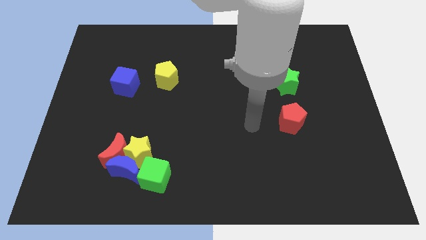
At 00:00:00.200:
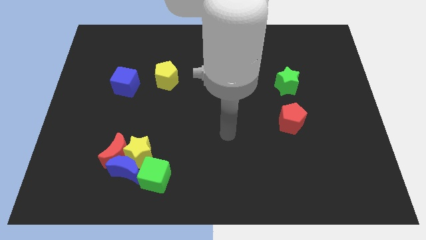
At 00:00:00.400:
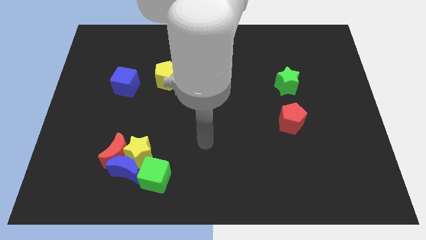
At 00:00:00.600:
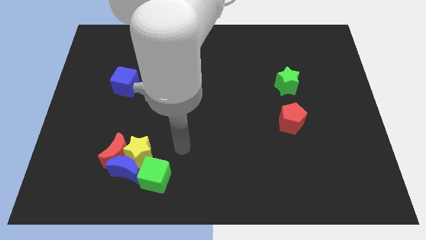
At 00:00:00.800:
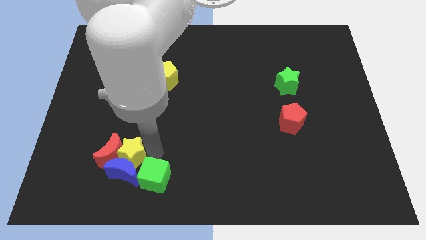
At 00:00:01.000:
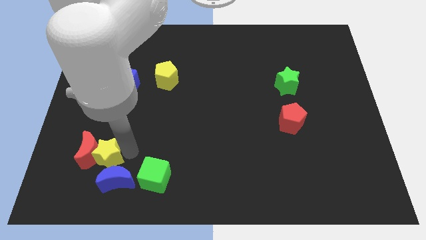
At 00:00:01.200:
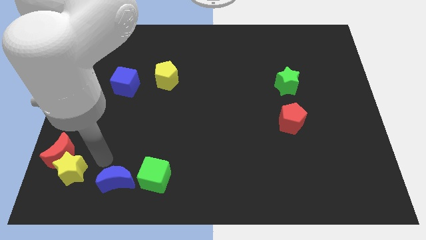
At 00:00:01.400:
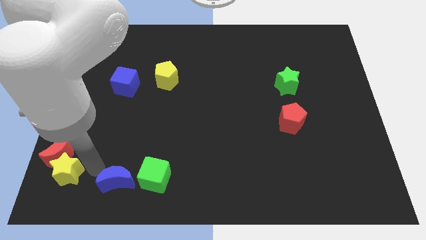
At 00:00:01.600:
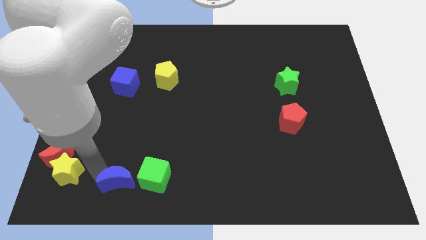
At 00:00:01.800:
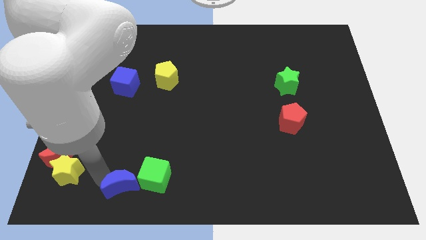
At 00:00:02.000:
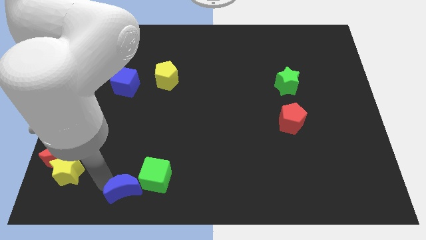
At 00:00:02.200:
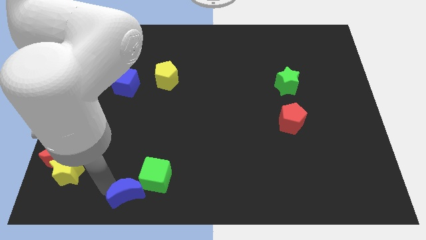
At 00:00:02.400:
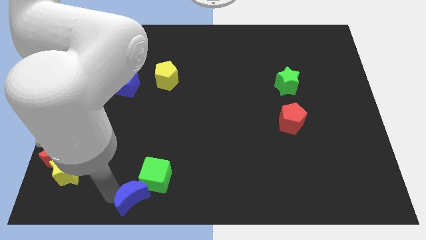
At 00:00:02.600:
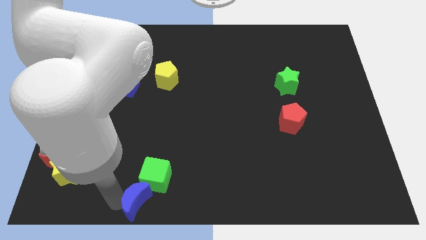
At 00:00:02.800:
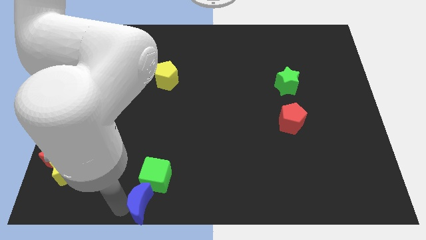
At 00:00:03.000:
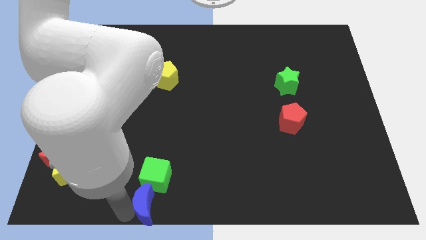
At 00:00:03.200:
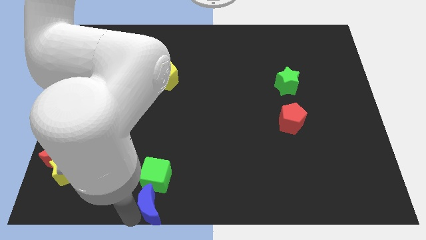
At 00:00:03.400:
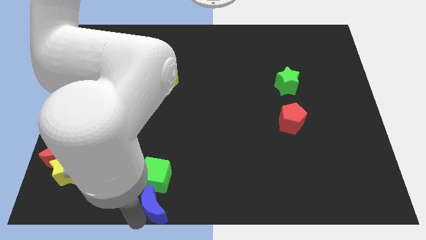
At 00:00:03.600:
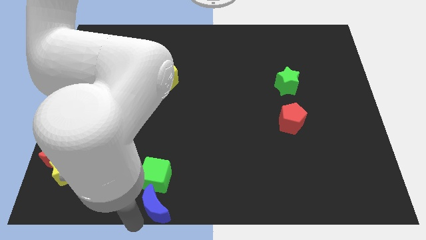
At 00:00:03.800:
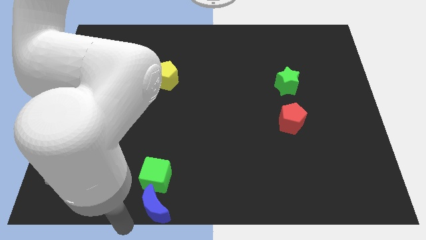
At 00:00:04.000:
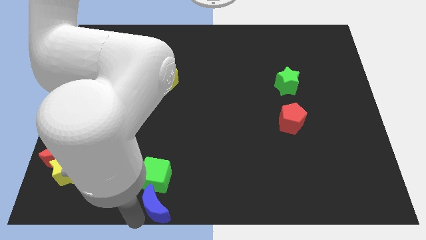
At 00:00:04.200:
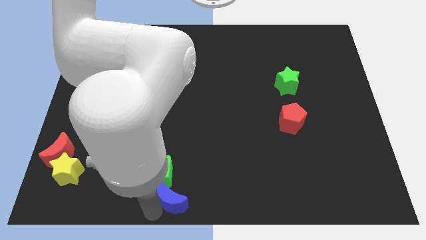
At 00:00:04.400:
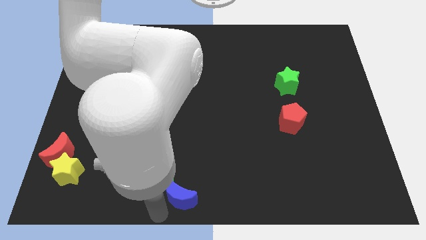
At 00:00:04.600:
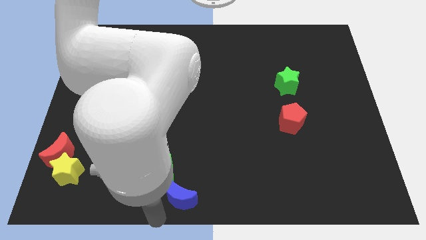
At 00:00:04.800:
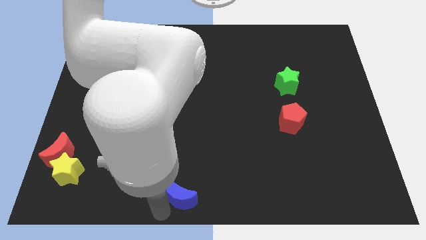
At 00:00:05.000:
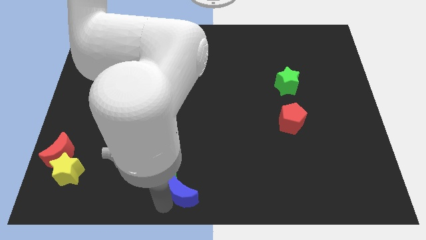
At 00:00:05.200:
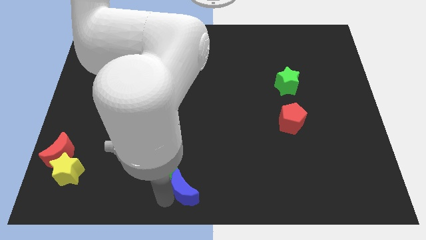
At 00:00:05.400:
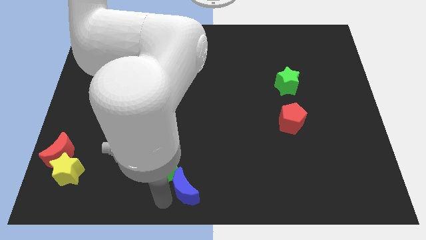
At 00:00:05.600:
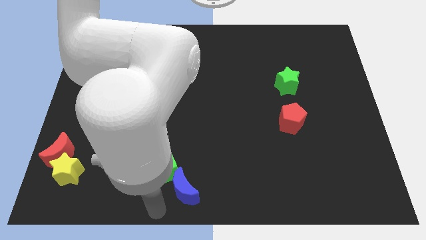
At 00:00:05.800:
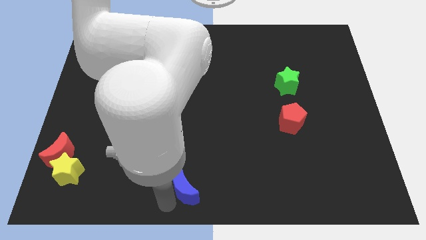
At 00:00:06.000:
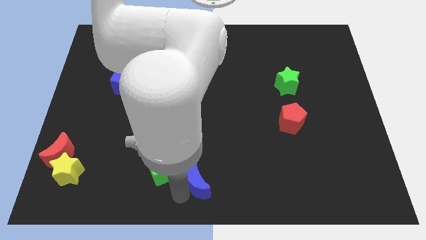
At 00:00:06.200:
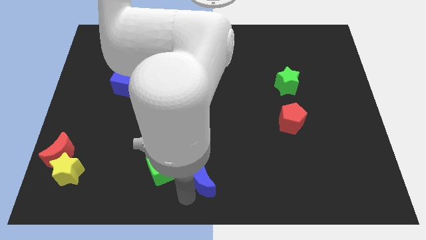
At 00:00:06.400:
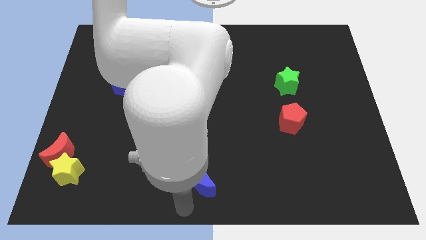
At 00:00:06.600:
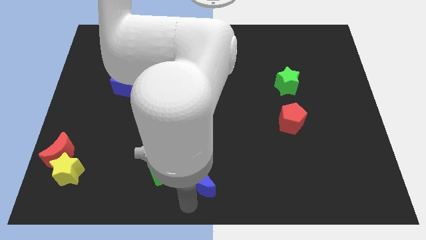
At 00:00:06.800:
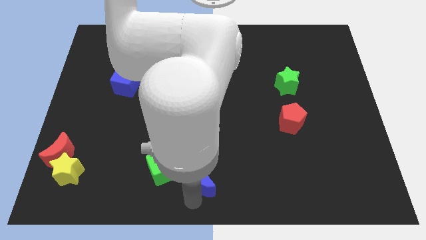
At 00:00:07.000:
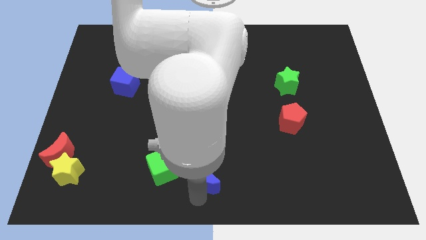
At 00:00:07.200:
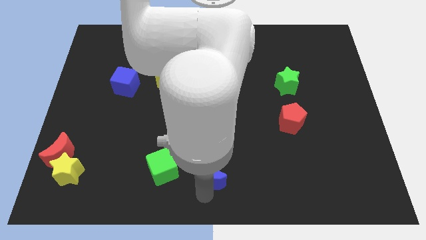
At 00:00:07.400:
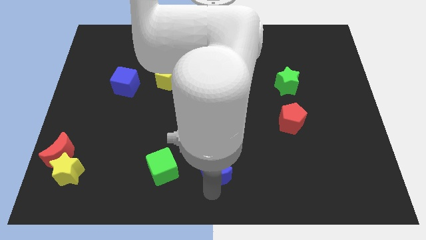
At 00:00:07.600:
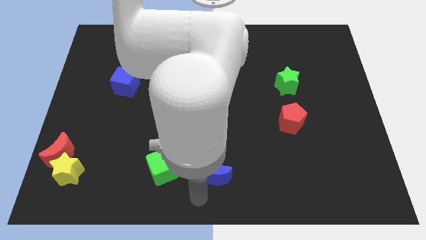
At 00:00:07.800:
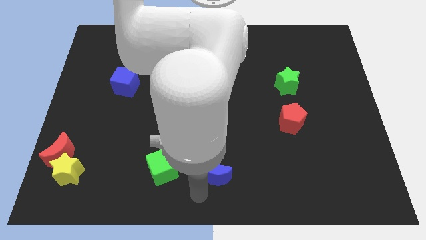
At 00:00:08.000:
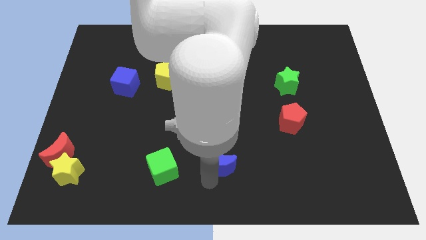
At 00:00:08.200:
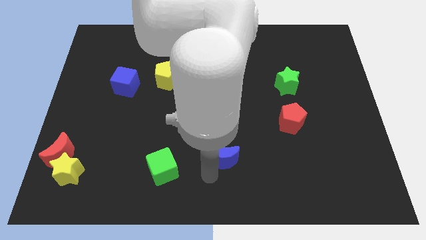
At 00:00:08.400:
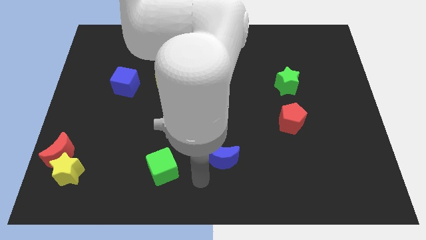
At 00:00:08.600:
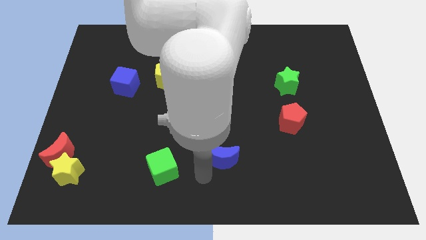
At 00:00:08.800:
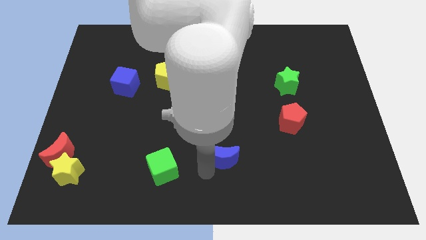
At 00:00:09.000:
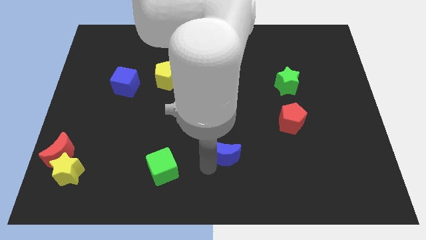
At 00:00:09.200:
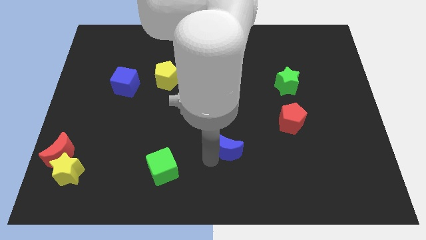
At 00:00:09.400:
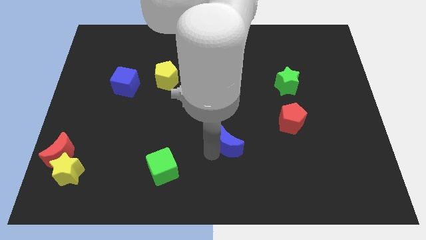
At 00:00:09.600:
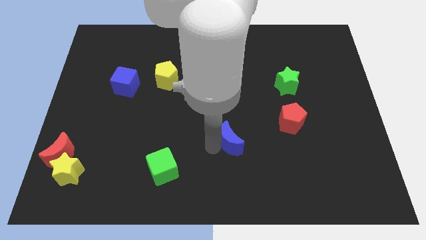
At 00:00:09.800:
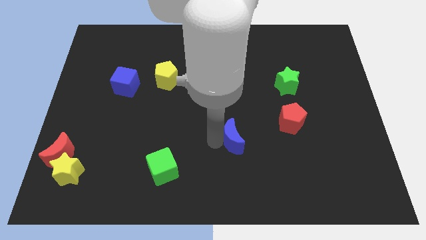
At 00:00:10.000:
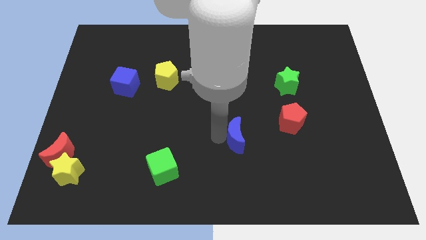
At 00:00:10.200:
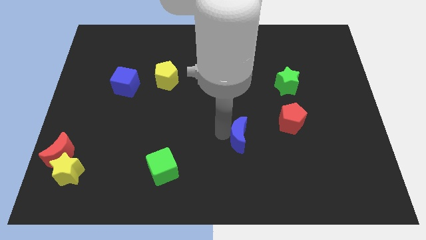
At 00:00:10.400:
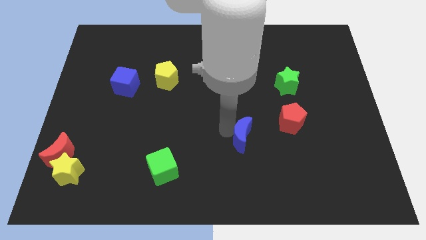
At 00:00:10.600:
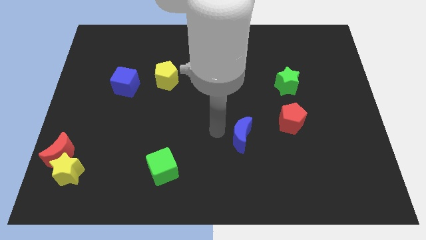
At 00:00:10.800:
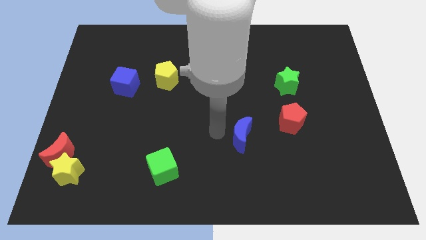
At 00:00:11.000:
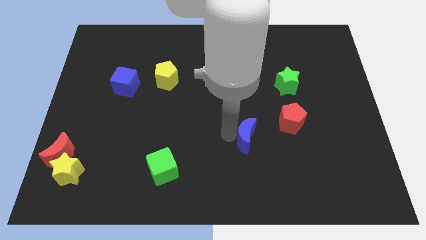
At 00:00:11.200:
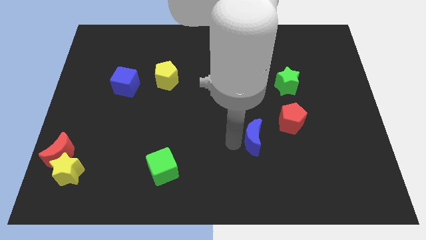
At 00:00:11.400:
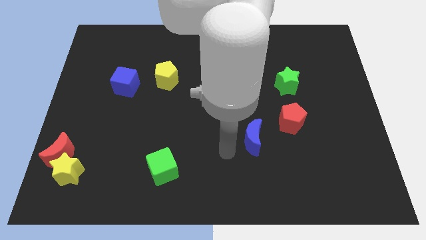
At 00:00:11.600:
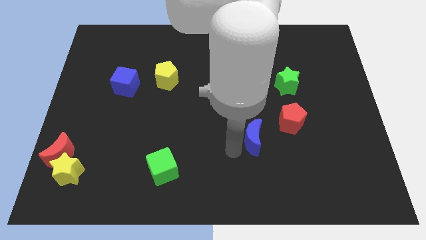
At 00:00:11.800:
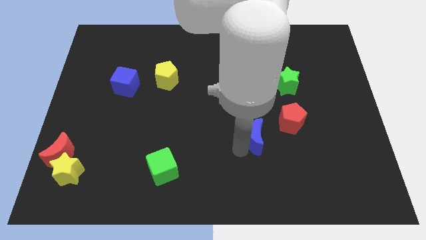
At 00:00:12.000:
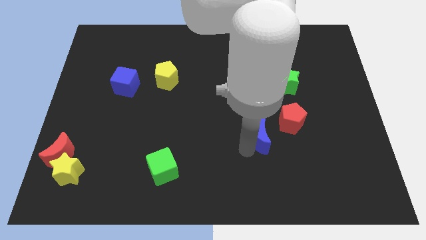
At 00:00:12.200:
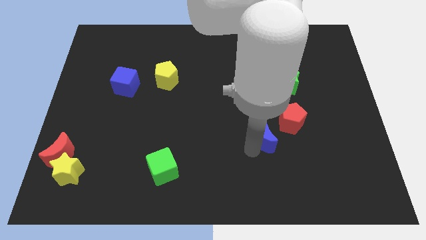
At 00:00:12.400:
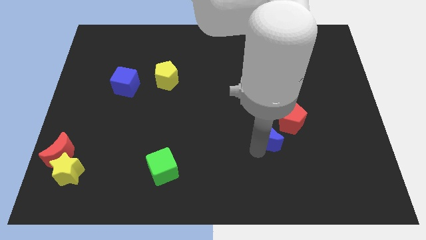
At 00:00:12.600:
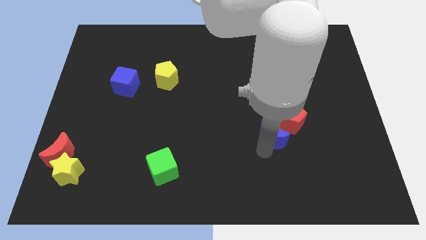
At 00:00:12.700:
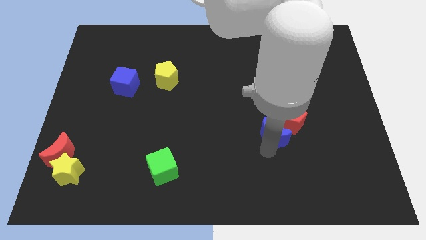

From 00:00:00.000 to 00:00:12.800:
slide the blue moon close to the red pentagon

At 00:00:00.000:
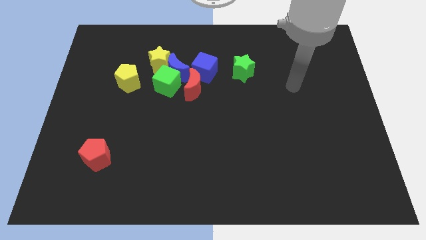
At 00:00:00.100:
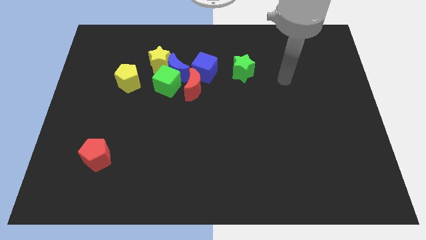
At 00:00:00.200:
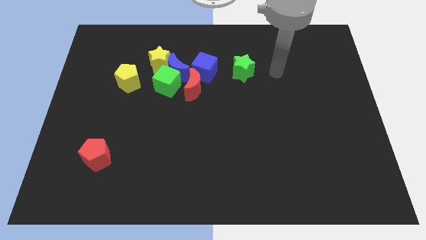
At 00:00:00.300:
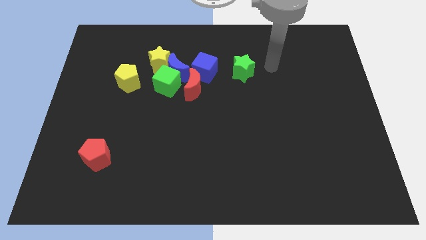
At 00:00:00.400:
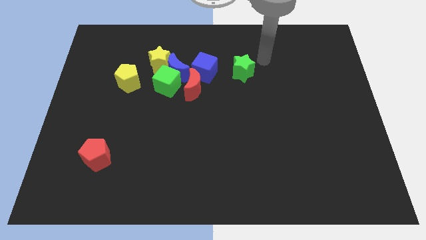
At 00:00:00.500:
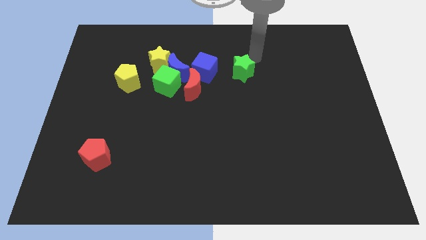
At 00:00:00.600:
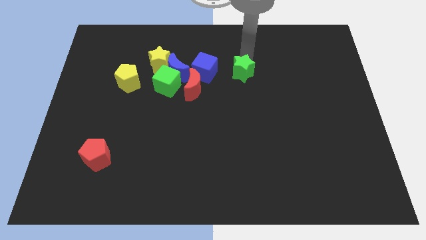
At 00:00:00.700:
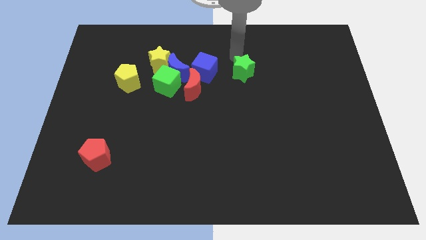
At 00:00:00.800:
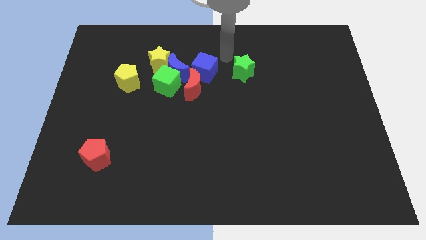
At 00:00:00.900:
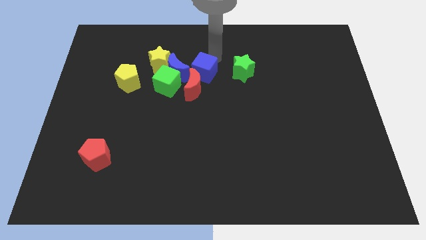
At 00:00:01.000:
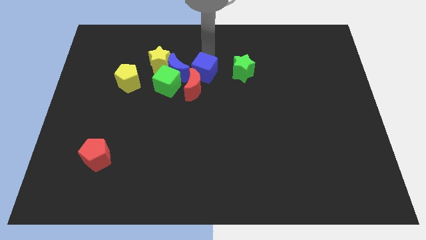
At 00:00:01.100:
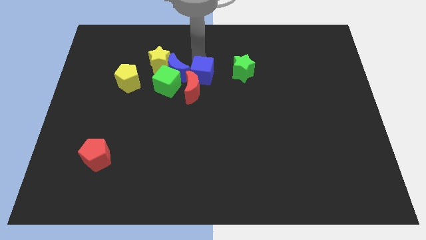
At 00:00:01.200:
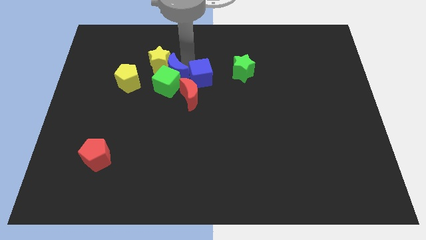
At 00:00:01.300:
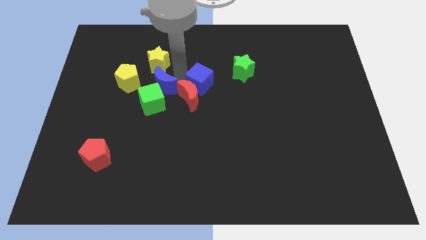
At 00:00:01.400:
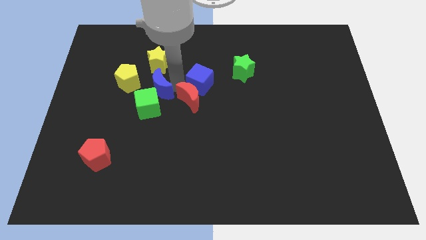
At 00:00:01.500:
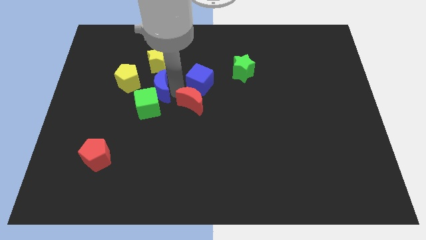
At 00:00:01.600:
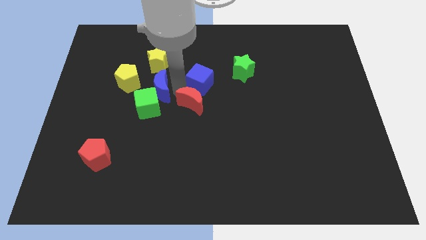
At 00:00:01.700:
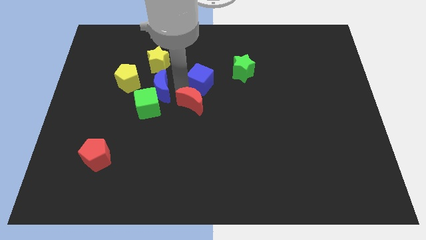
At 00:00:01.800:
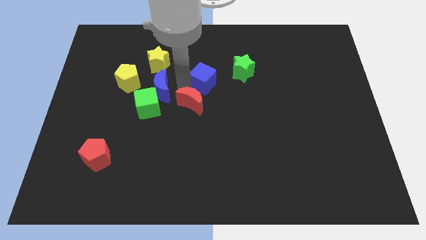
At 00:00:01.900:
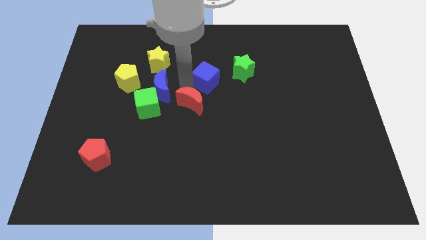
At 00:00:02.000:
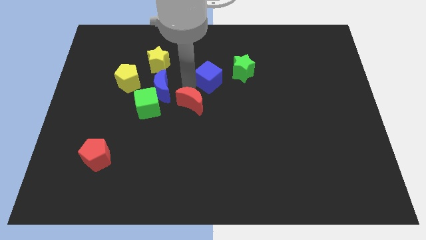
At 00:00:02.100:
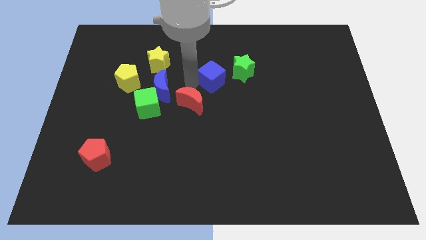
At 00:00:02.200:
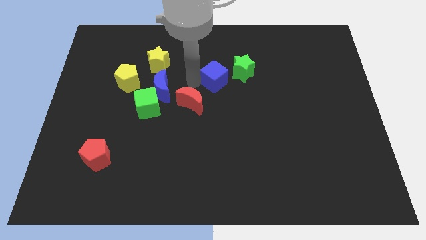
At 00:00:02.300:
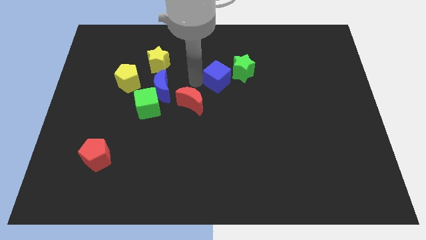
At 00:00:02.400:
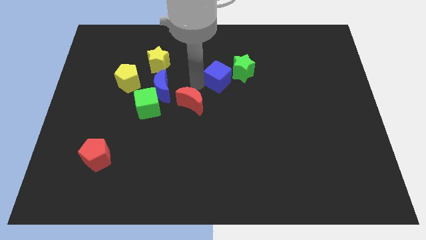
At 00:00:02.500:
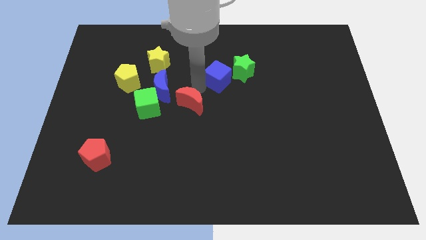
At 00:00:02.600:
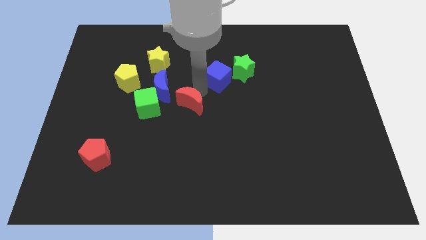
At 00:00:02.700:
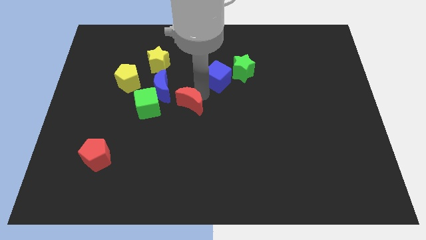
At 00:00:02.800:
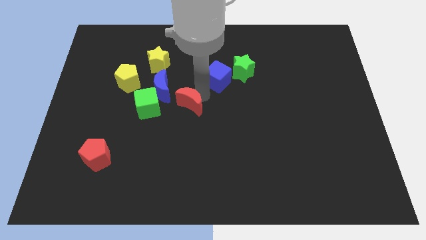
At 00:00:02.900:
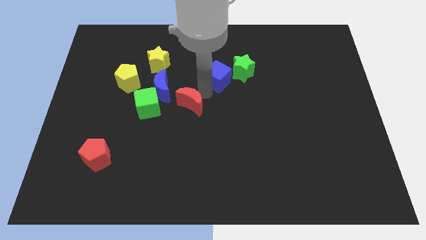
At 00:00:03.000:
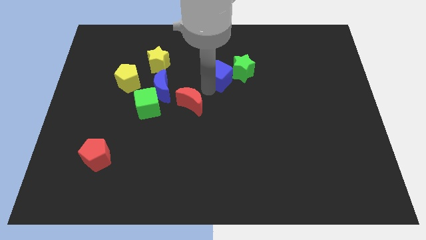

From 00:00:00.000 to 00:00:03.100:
move the blue cube close to the green star
